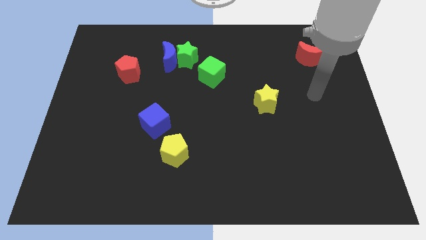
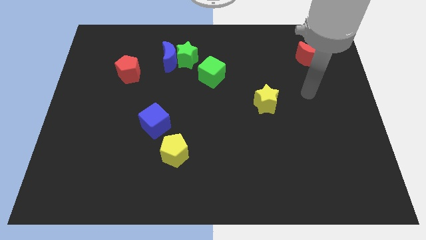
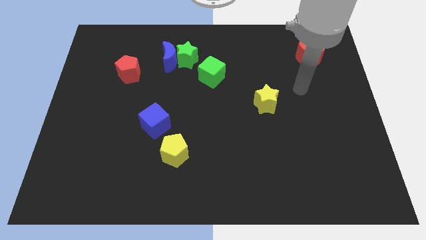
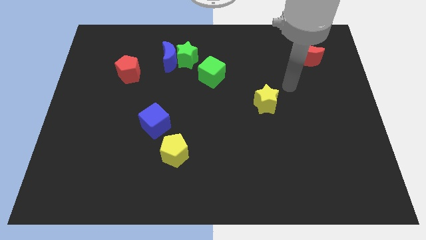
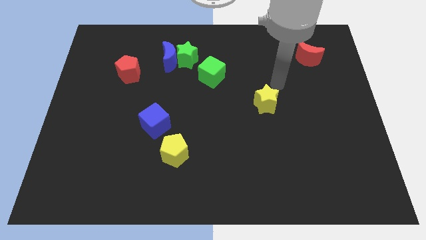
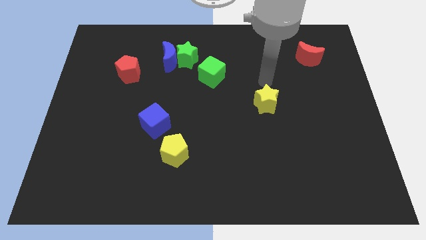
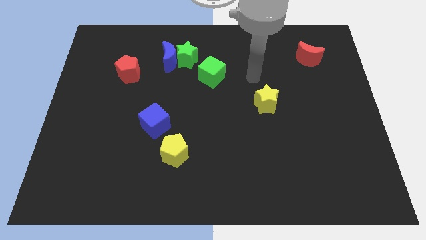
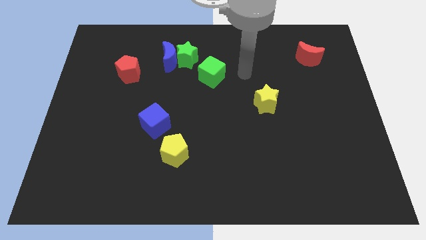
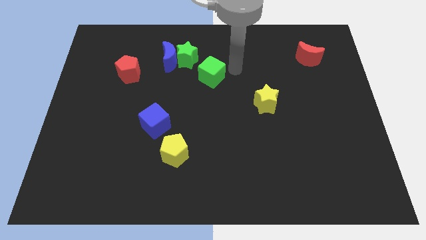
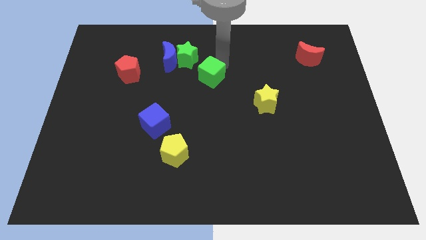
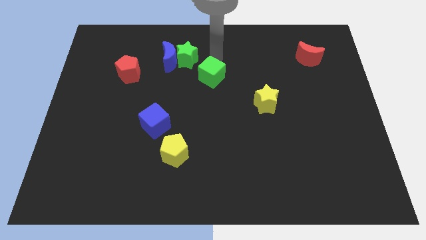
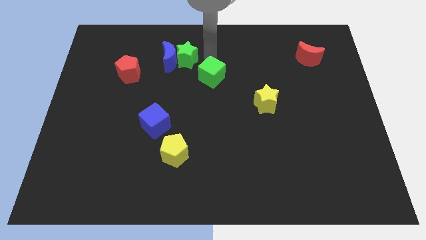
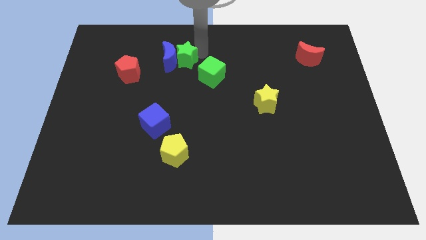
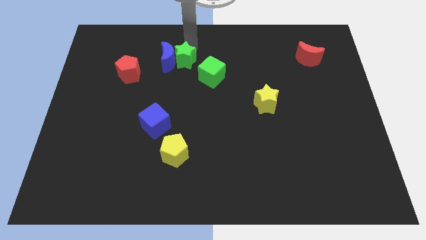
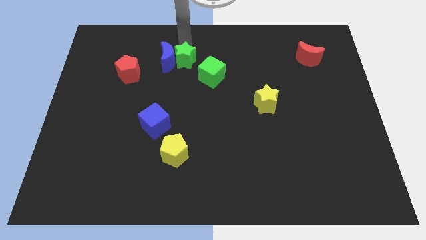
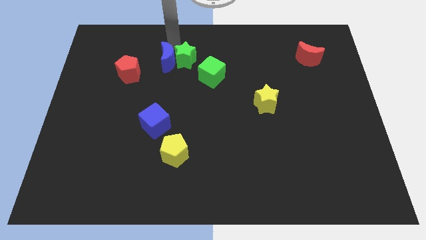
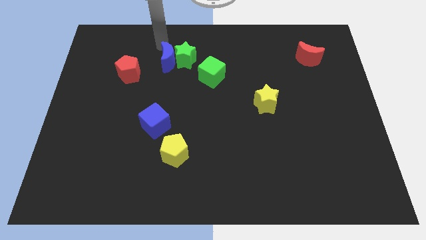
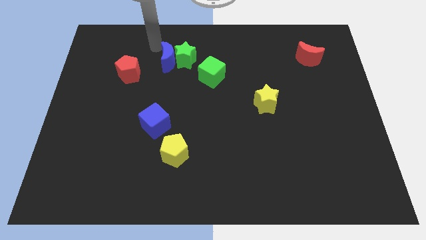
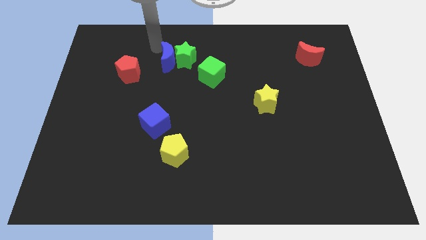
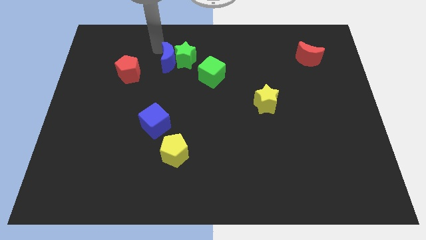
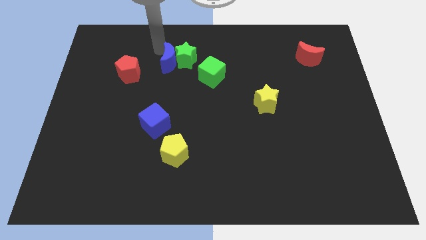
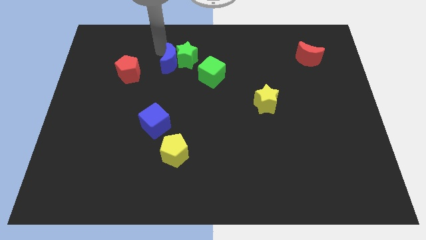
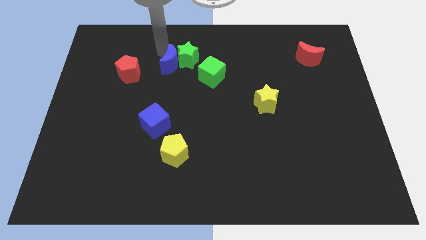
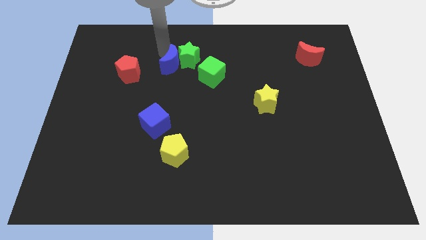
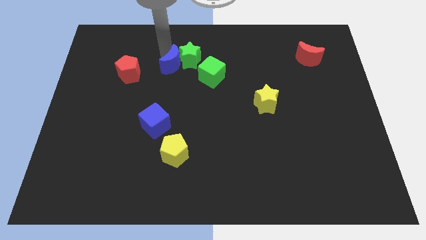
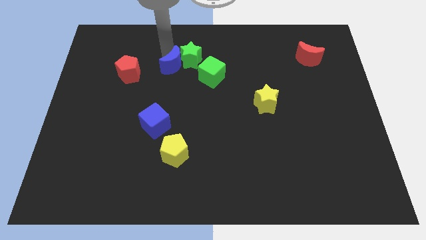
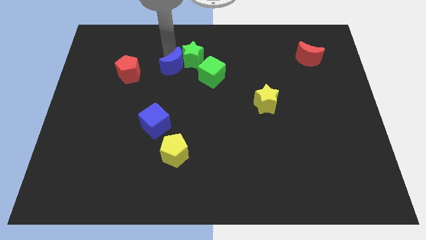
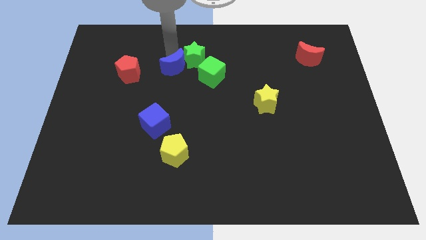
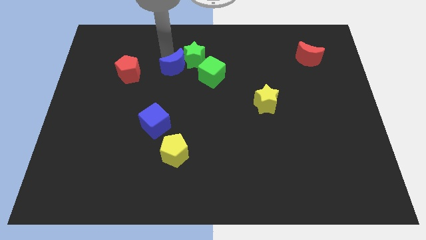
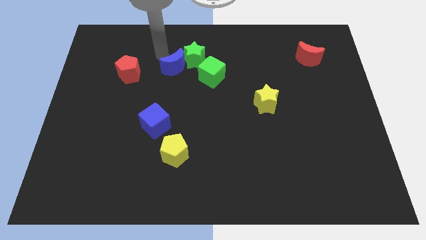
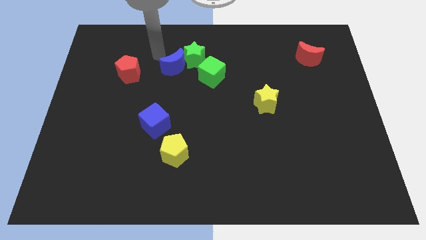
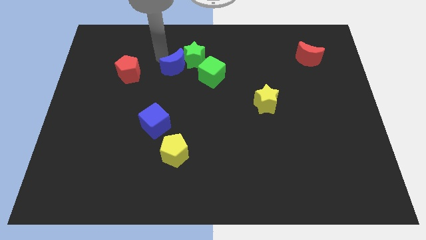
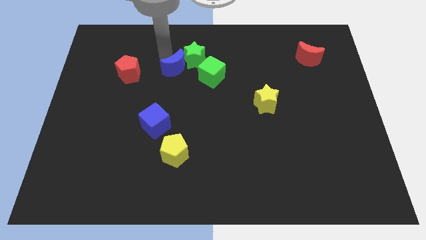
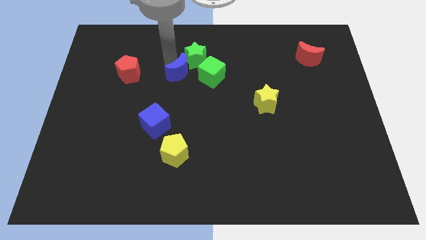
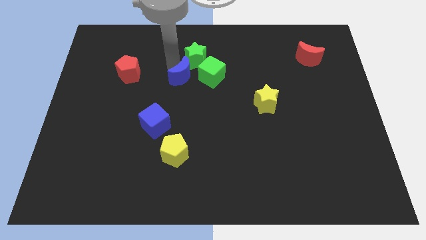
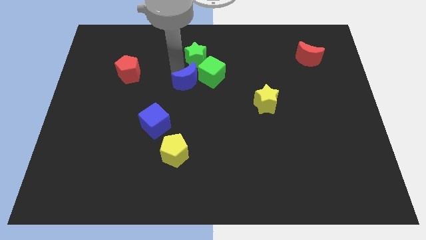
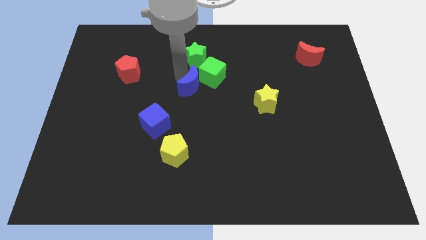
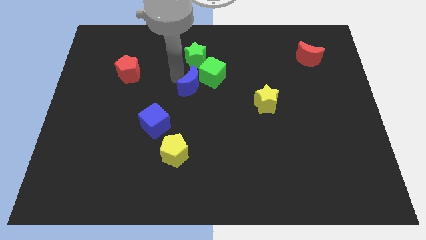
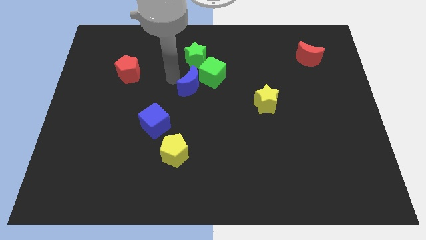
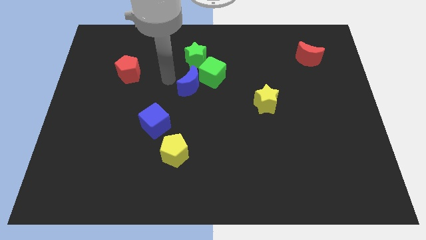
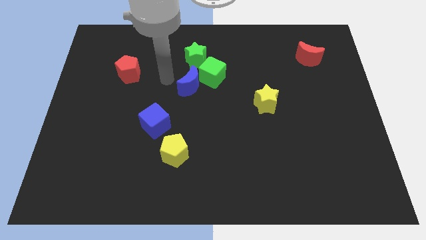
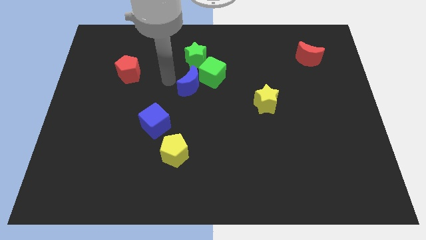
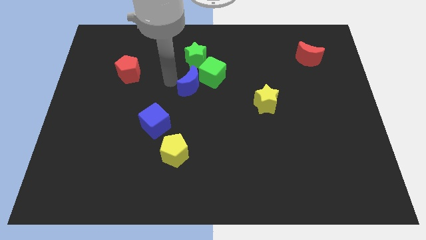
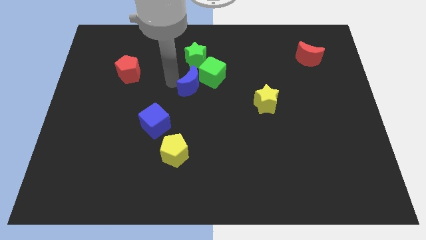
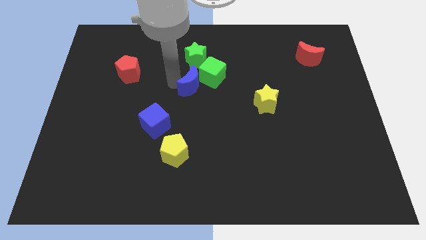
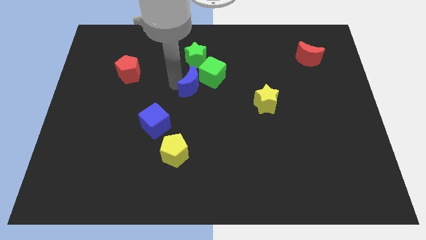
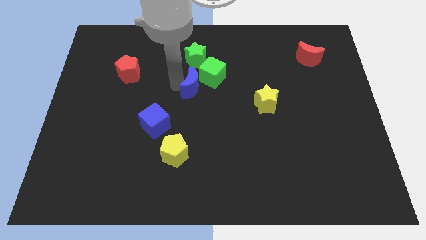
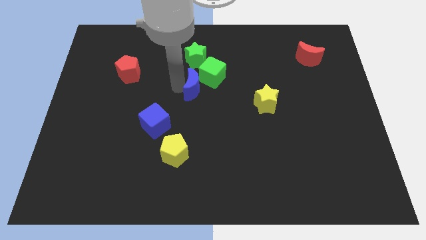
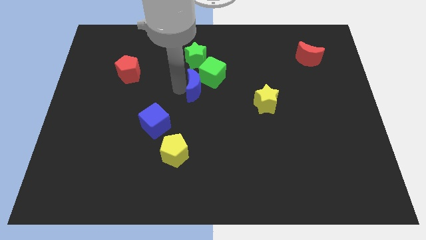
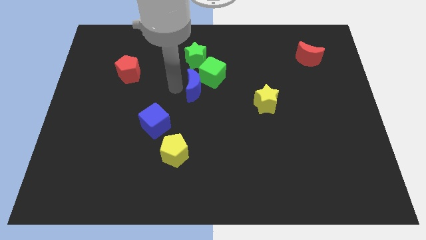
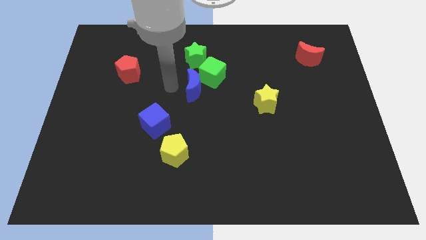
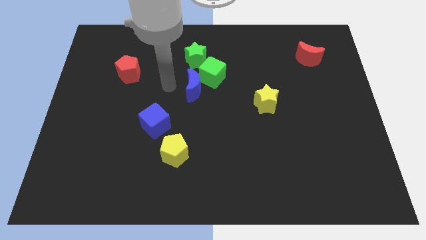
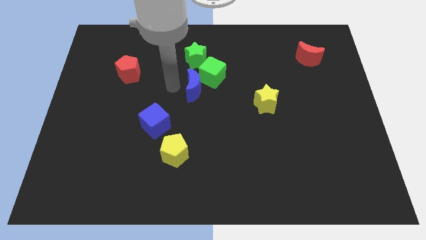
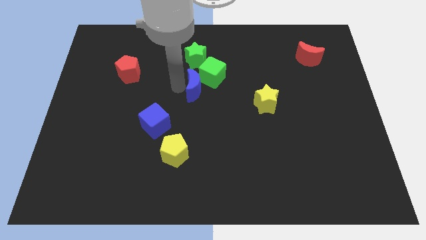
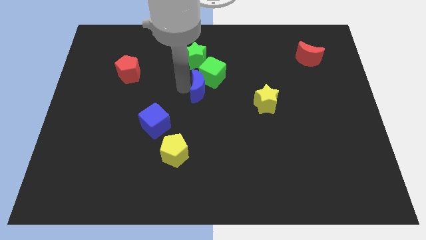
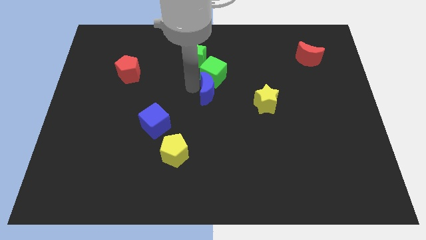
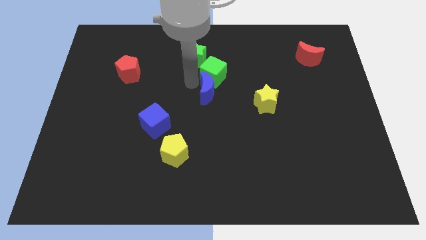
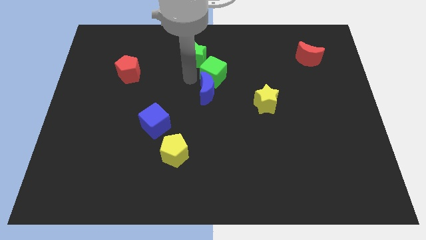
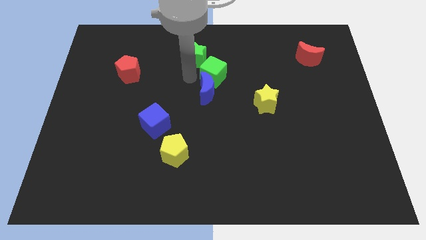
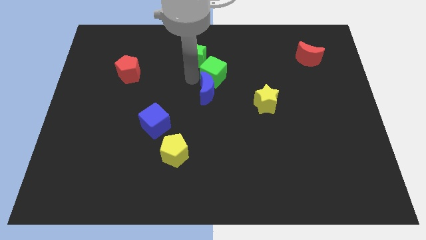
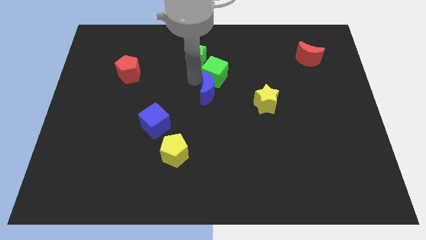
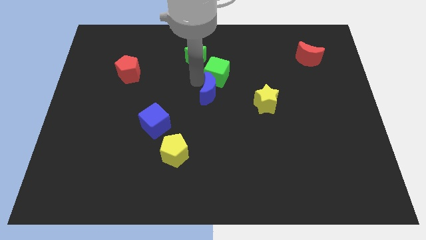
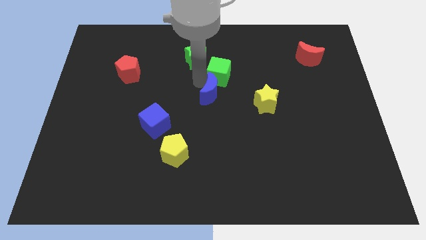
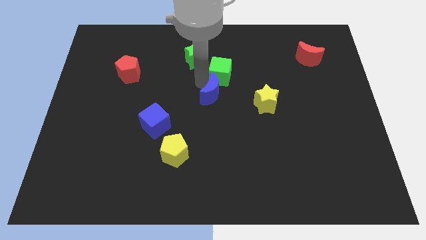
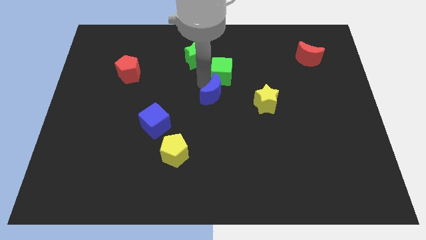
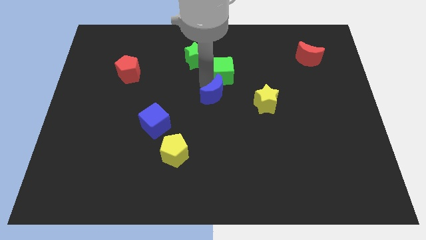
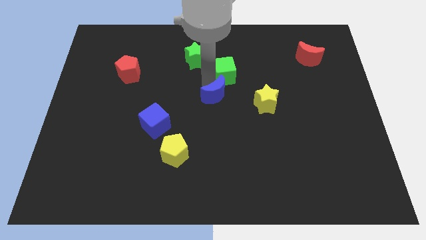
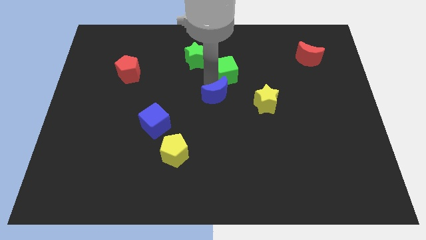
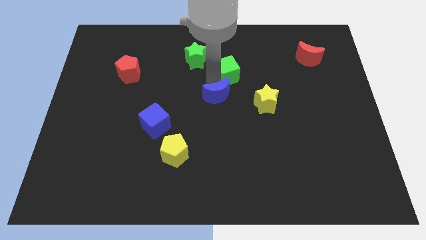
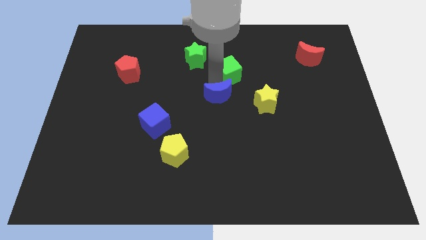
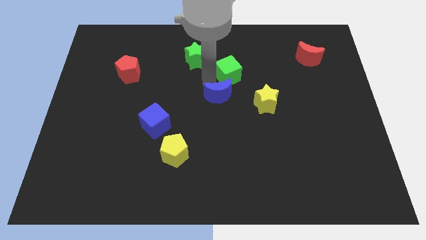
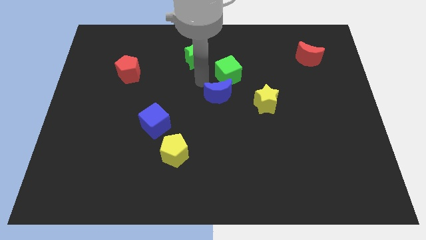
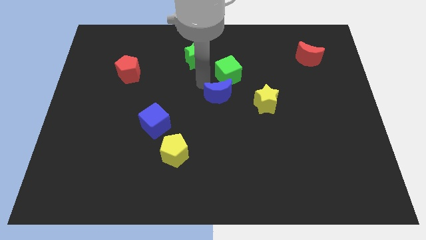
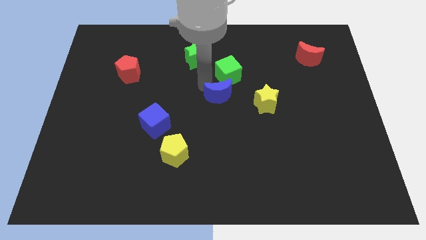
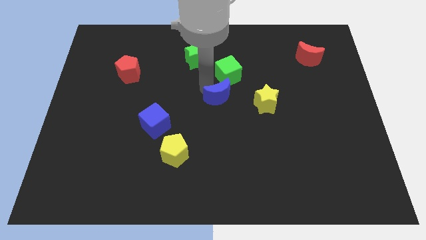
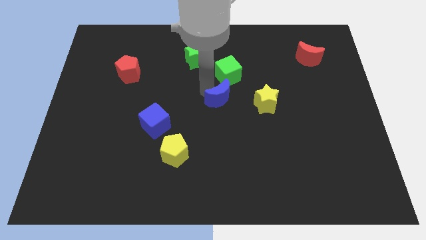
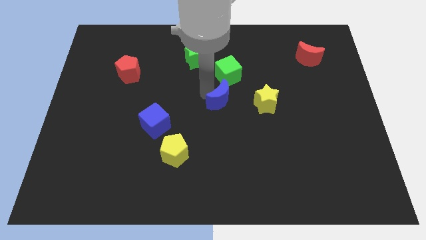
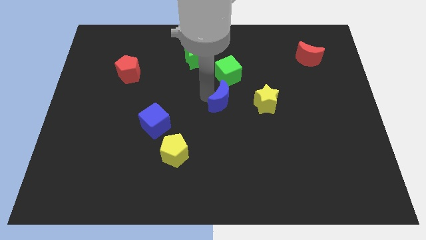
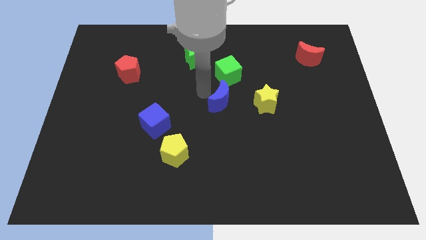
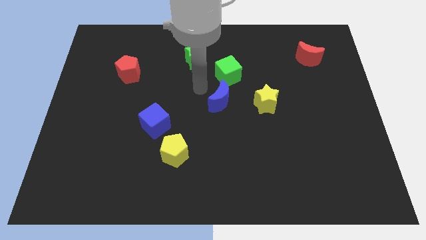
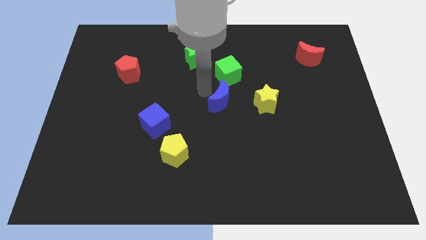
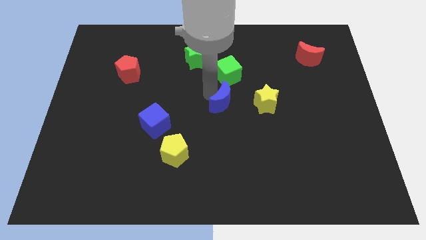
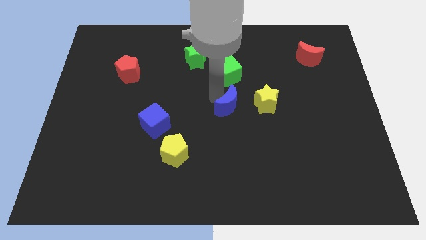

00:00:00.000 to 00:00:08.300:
slide the blue moon downwards and right
